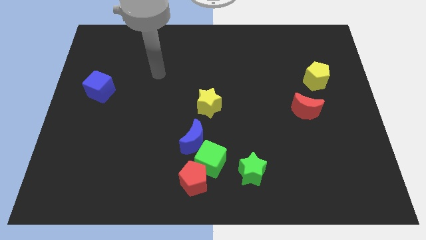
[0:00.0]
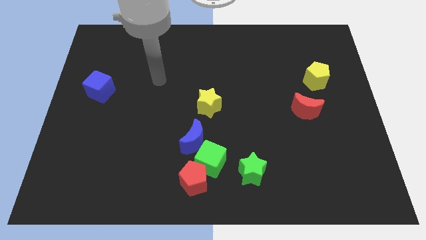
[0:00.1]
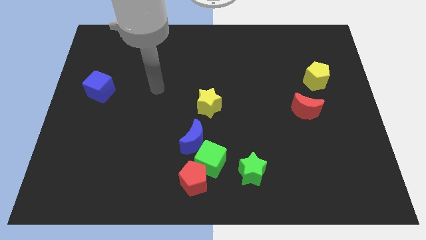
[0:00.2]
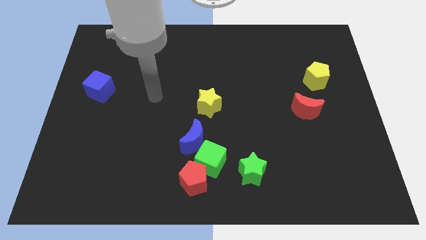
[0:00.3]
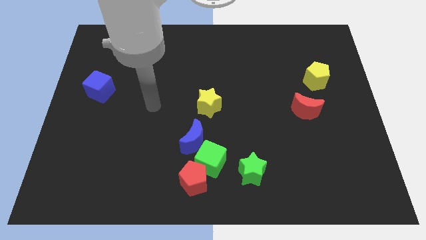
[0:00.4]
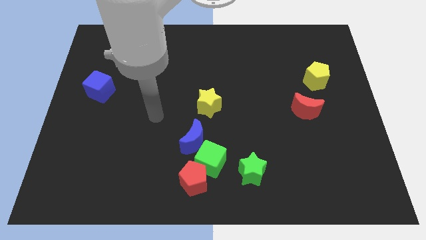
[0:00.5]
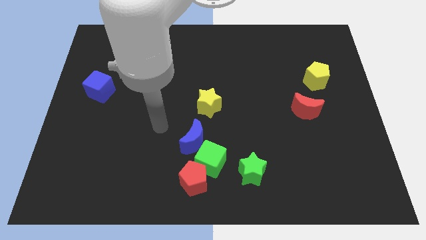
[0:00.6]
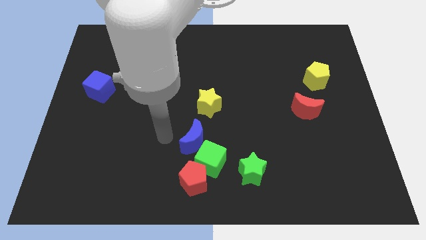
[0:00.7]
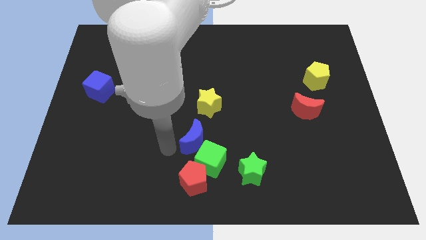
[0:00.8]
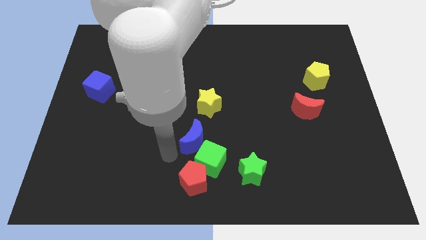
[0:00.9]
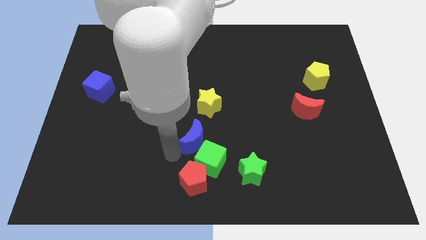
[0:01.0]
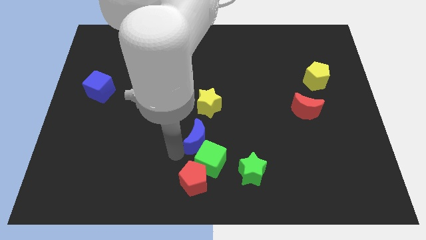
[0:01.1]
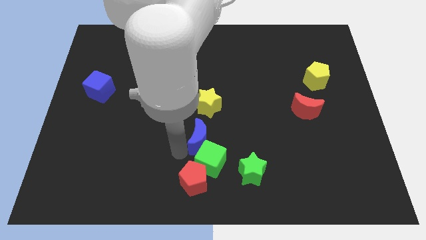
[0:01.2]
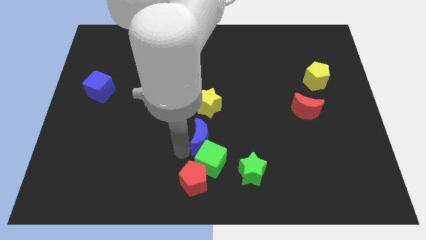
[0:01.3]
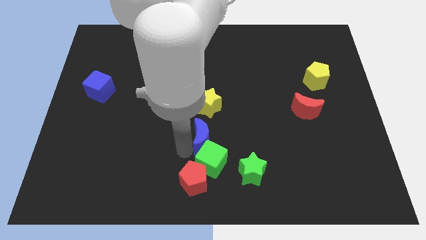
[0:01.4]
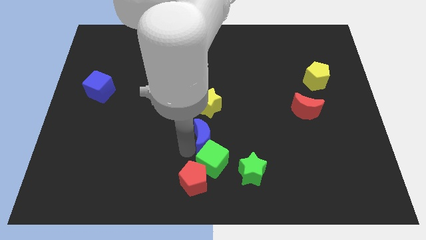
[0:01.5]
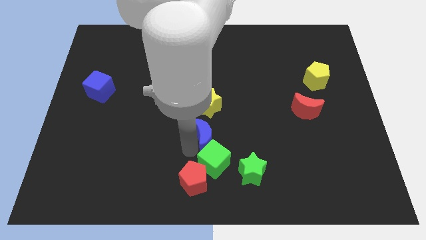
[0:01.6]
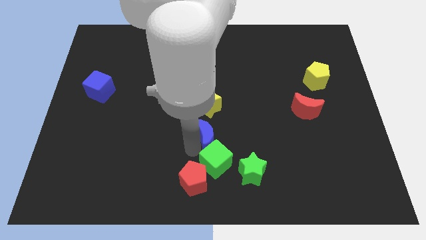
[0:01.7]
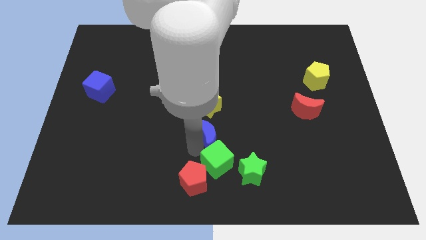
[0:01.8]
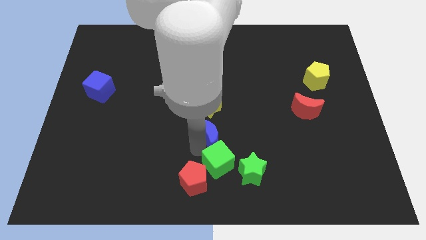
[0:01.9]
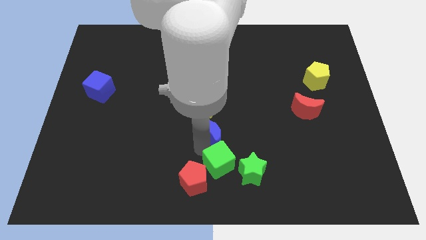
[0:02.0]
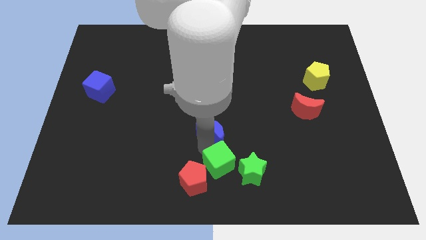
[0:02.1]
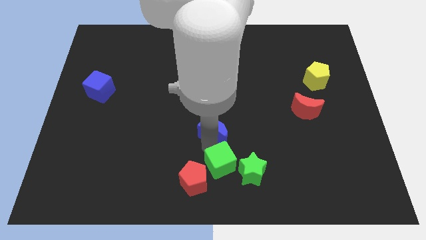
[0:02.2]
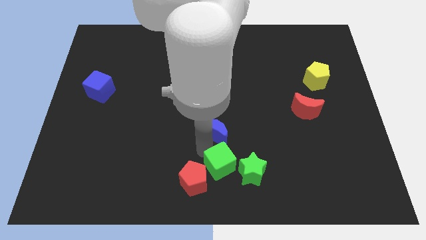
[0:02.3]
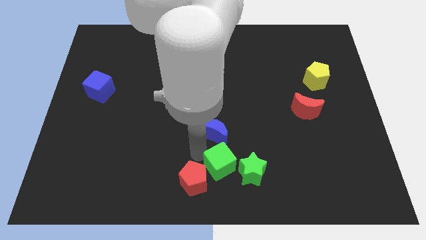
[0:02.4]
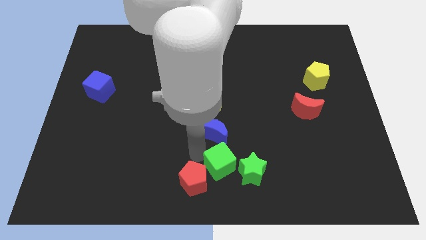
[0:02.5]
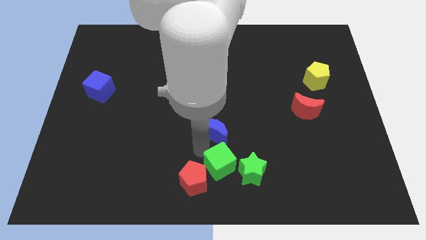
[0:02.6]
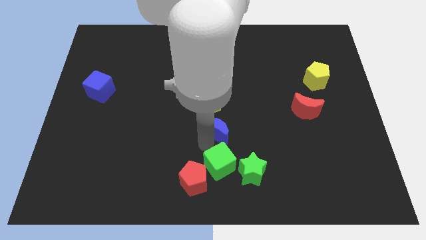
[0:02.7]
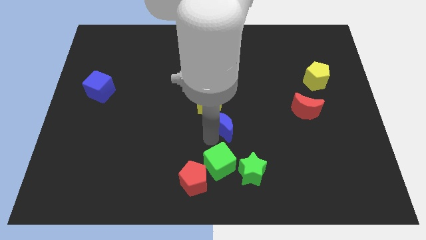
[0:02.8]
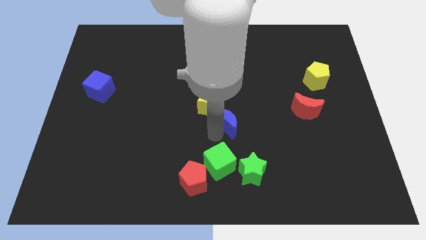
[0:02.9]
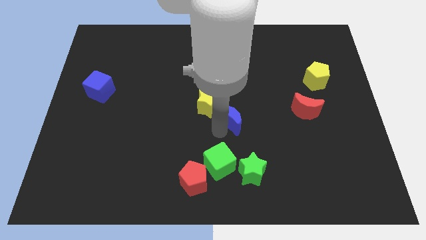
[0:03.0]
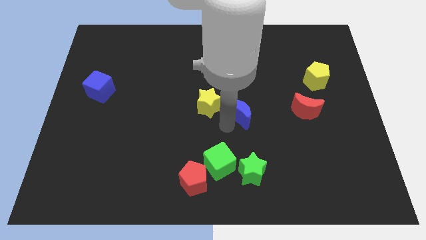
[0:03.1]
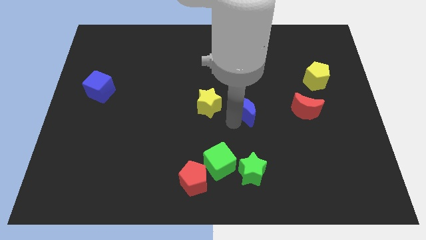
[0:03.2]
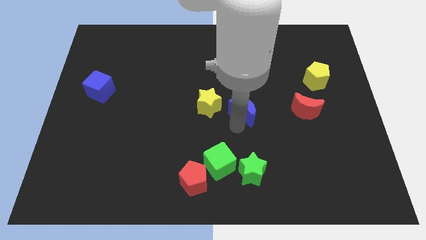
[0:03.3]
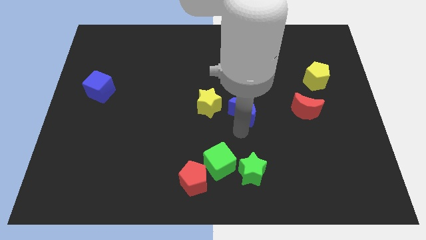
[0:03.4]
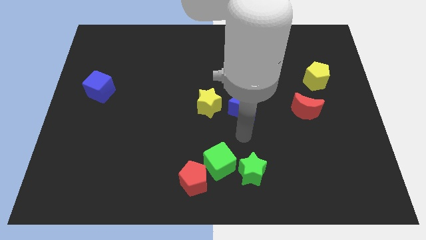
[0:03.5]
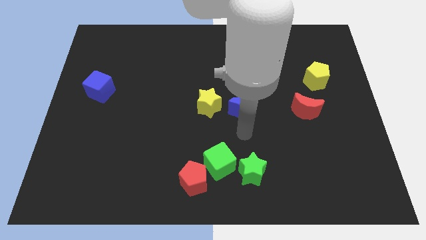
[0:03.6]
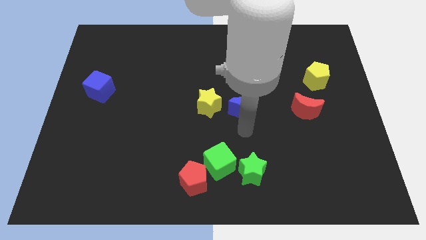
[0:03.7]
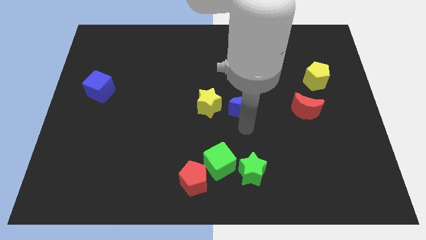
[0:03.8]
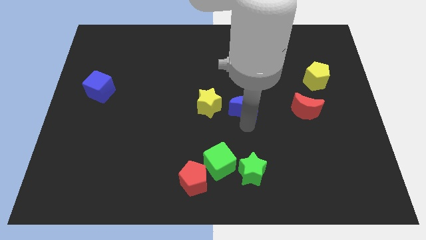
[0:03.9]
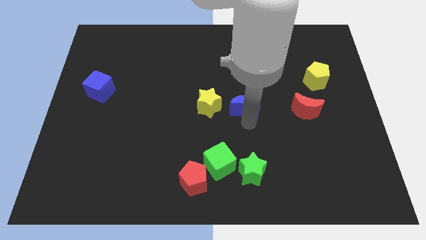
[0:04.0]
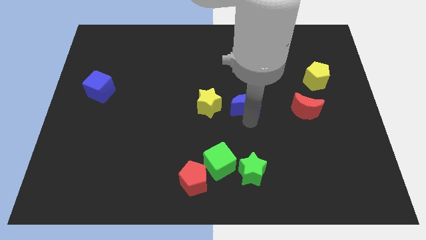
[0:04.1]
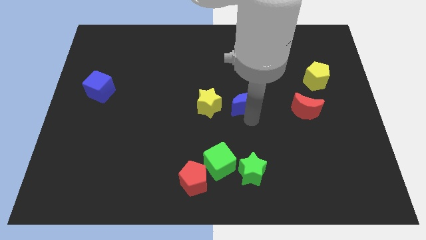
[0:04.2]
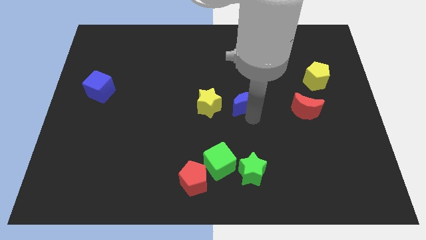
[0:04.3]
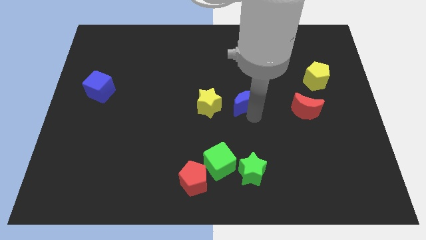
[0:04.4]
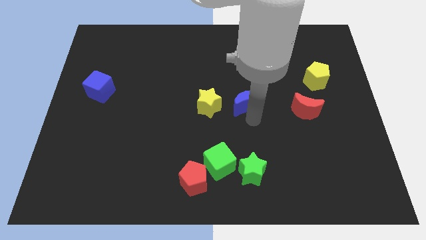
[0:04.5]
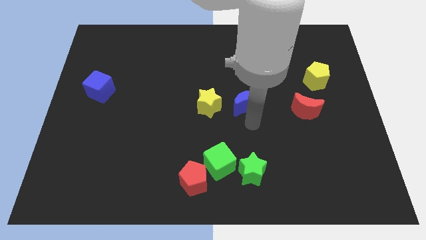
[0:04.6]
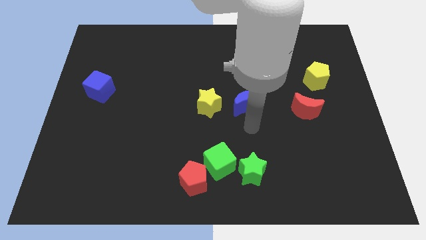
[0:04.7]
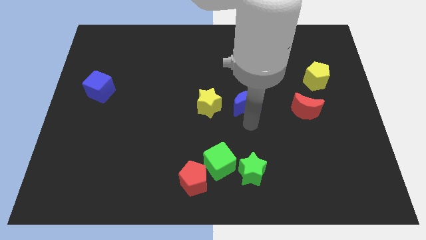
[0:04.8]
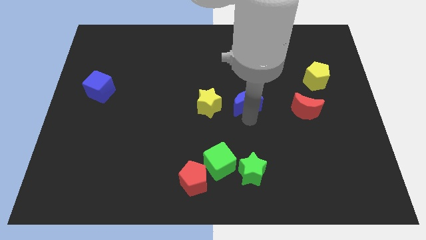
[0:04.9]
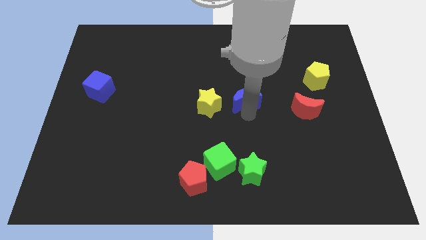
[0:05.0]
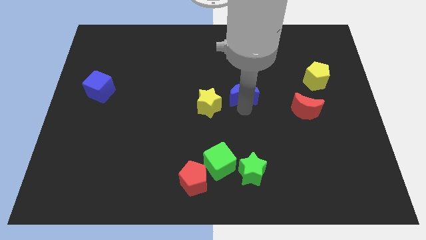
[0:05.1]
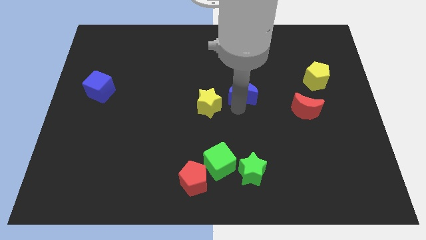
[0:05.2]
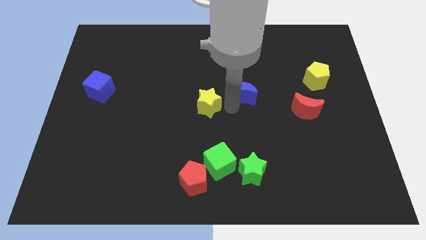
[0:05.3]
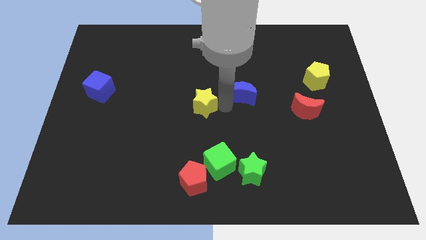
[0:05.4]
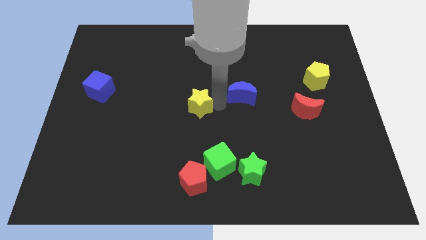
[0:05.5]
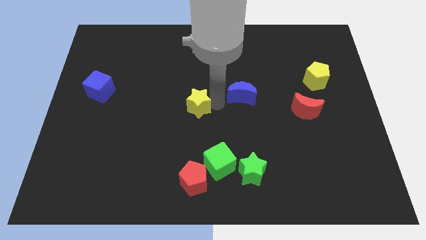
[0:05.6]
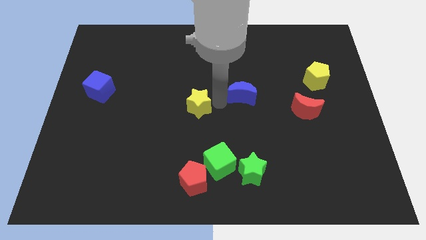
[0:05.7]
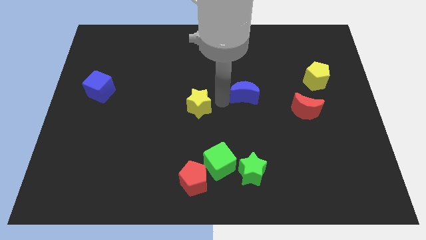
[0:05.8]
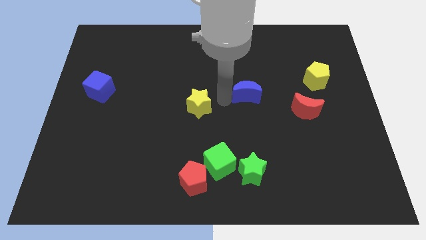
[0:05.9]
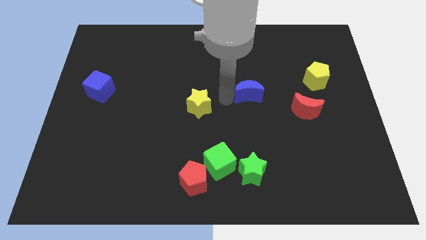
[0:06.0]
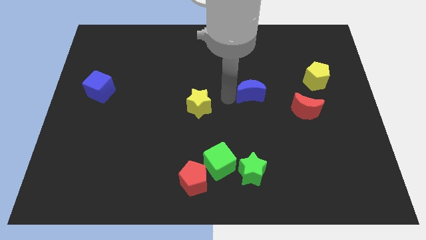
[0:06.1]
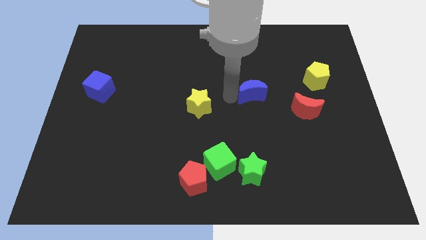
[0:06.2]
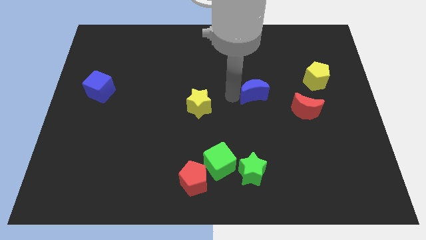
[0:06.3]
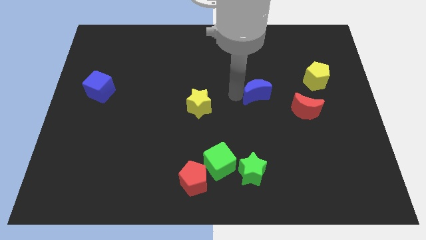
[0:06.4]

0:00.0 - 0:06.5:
slide the blue moon diagonally up and to the right

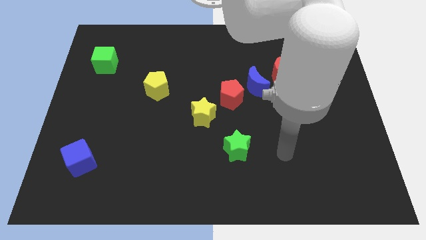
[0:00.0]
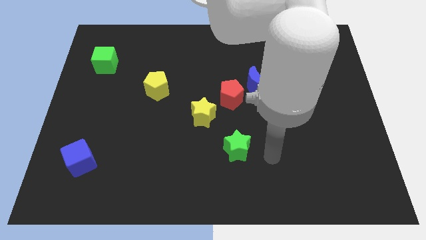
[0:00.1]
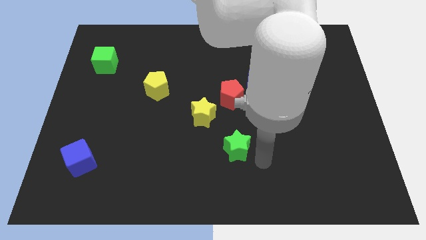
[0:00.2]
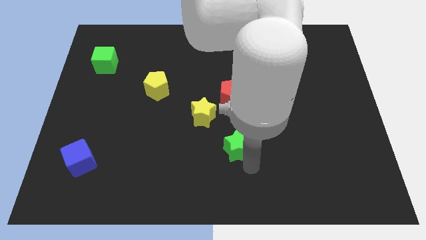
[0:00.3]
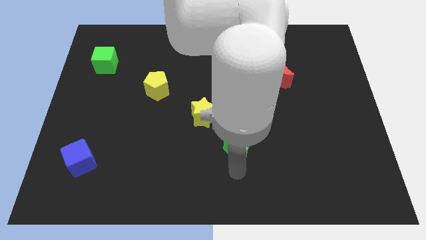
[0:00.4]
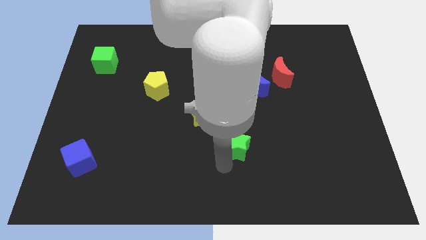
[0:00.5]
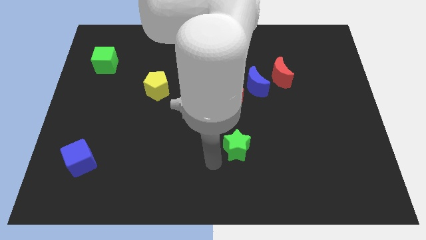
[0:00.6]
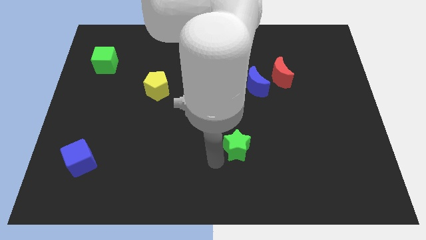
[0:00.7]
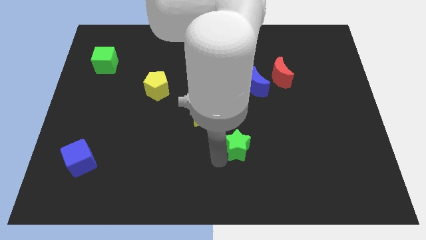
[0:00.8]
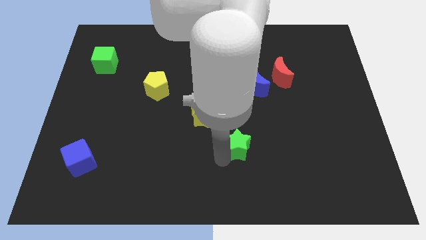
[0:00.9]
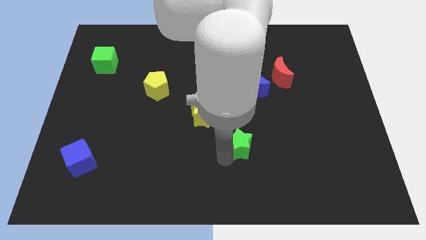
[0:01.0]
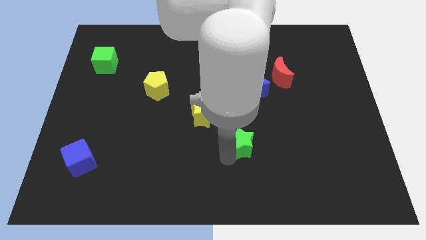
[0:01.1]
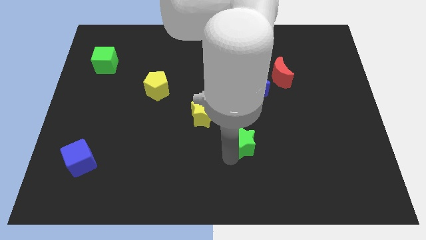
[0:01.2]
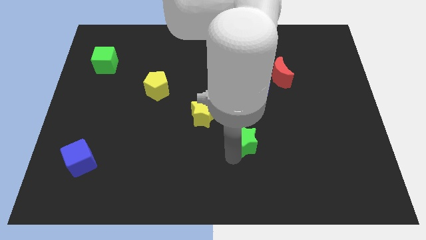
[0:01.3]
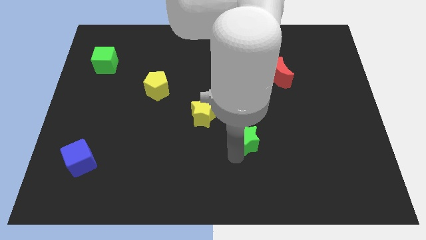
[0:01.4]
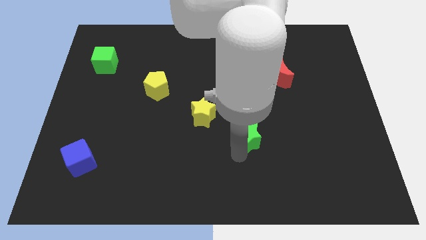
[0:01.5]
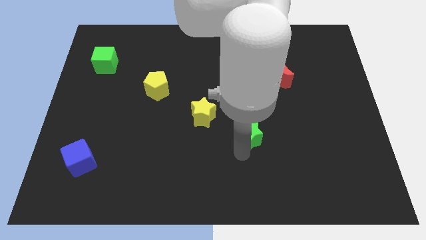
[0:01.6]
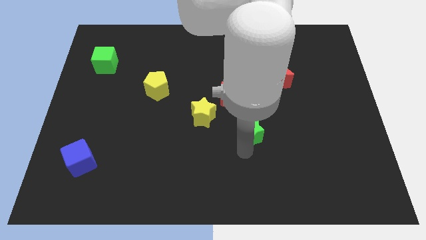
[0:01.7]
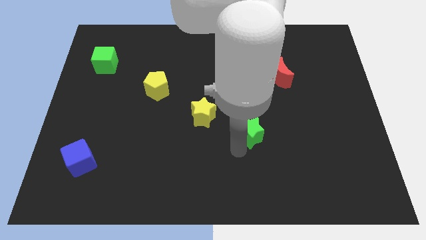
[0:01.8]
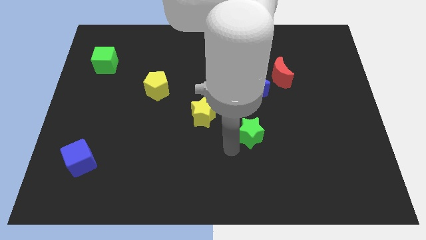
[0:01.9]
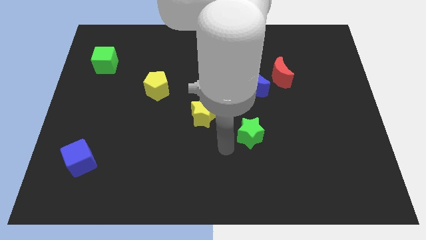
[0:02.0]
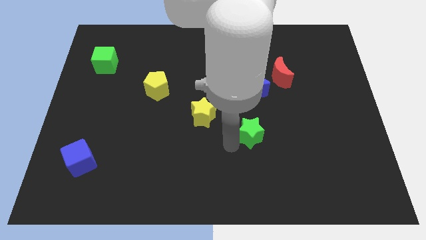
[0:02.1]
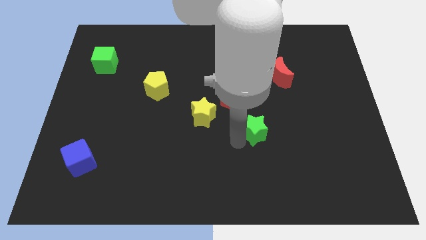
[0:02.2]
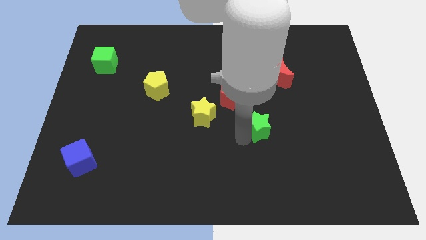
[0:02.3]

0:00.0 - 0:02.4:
move the green star a little upwards and then right
